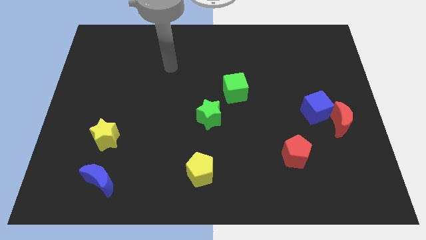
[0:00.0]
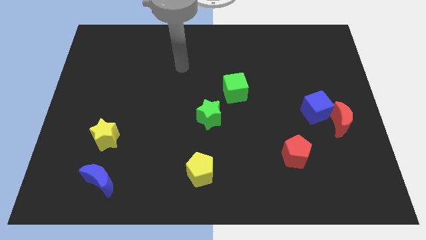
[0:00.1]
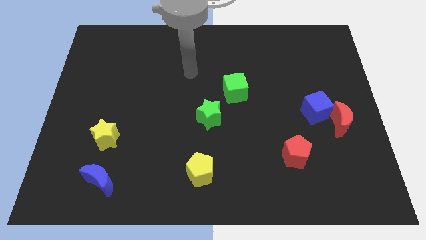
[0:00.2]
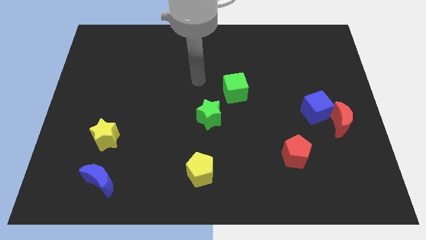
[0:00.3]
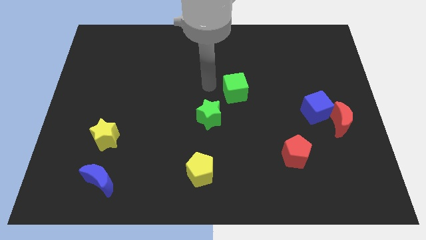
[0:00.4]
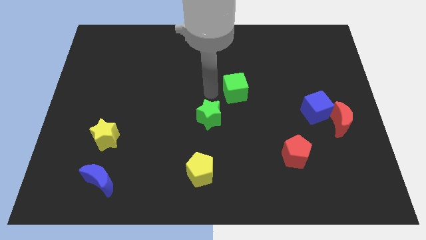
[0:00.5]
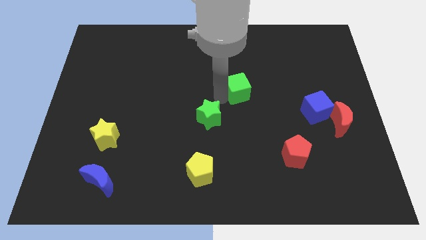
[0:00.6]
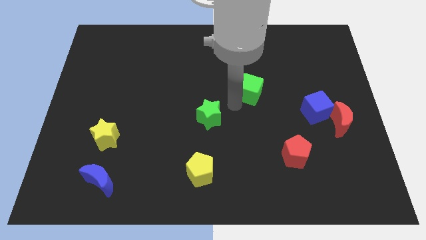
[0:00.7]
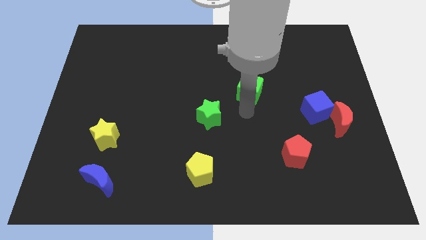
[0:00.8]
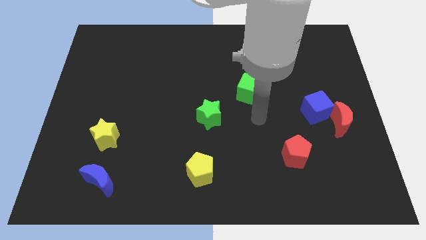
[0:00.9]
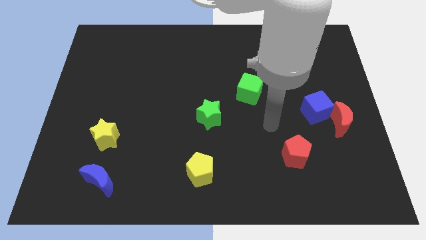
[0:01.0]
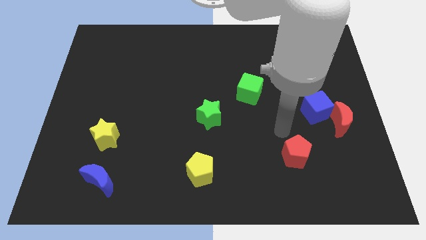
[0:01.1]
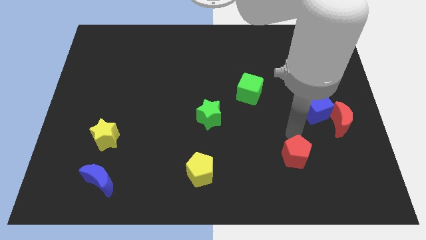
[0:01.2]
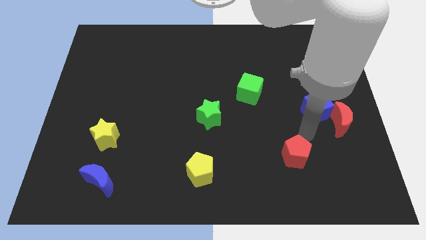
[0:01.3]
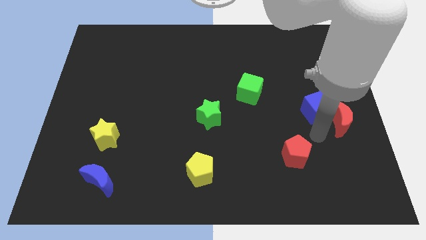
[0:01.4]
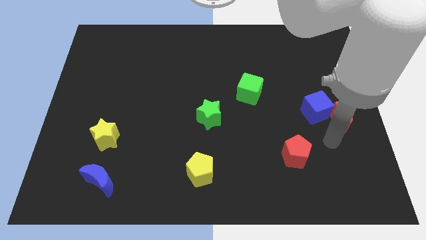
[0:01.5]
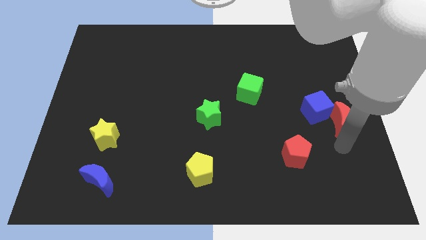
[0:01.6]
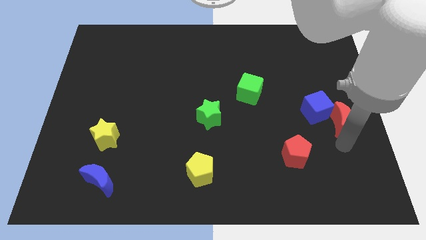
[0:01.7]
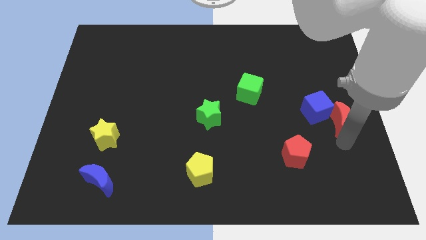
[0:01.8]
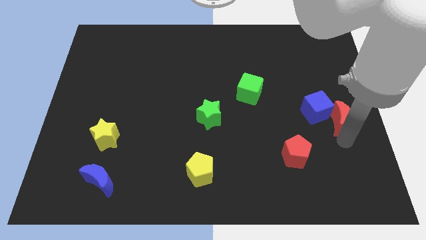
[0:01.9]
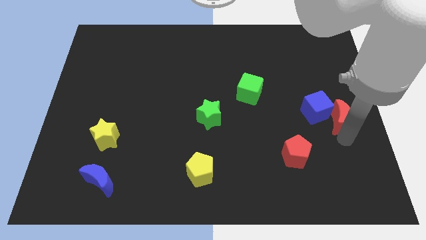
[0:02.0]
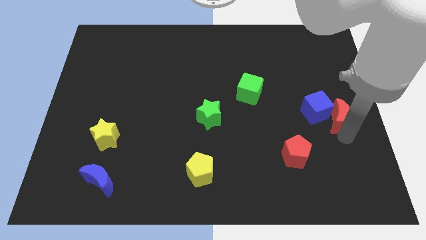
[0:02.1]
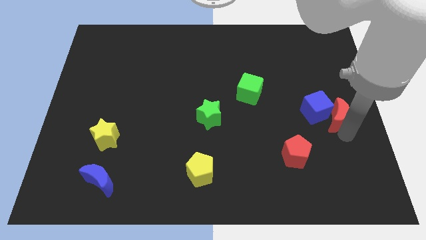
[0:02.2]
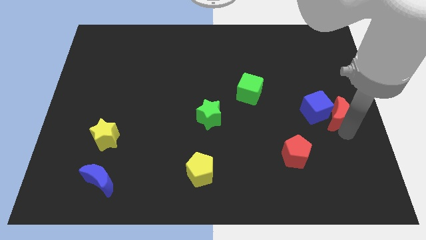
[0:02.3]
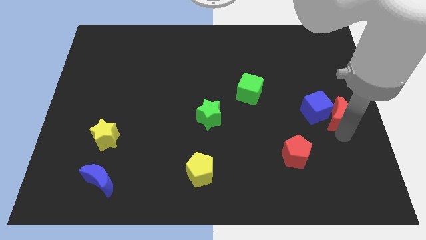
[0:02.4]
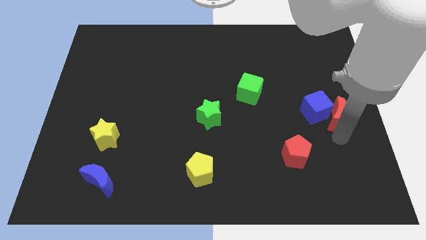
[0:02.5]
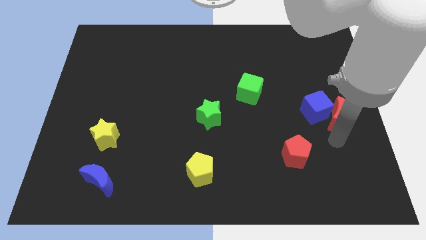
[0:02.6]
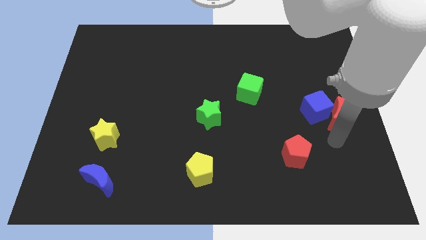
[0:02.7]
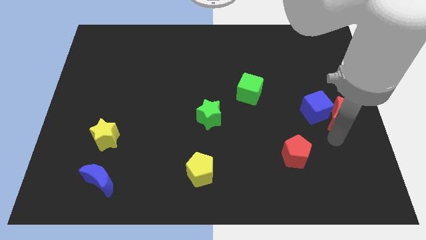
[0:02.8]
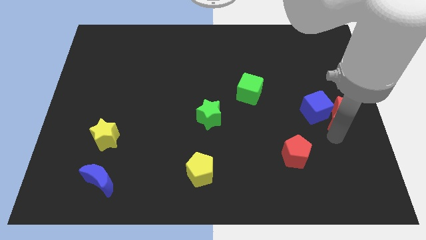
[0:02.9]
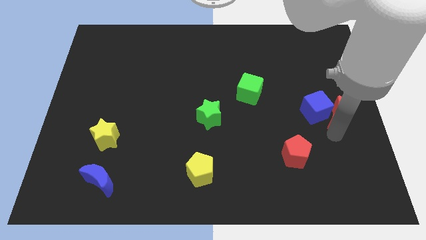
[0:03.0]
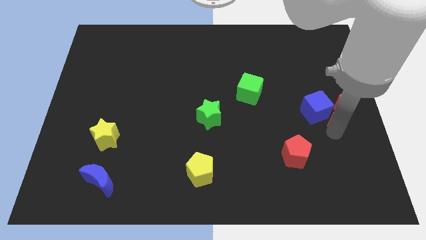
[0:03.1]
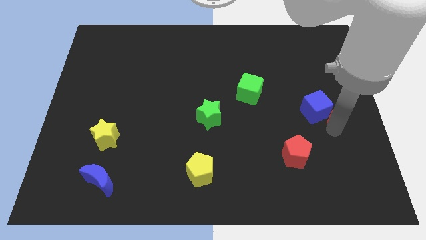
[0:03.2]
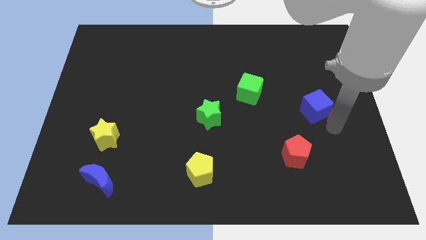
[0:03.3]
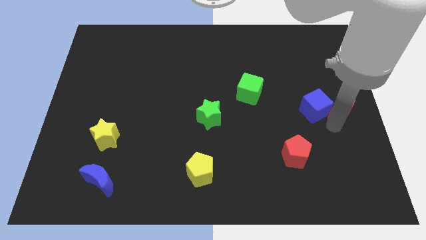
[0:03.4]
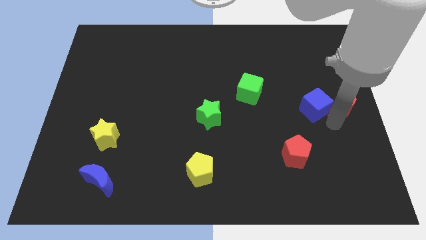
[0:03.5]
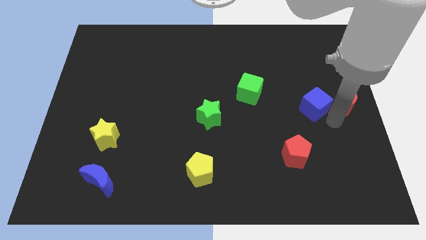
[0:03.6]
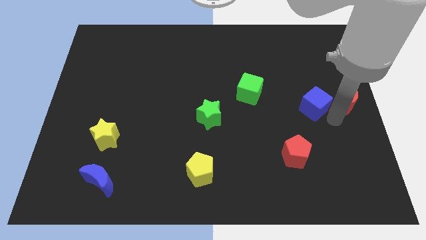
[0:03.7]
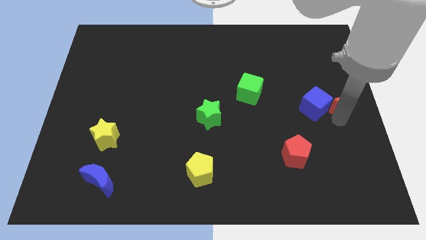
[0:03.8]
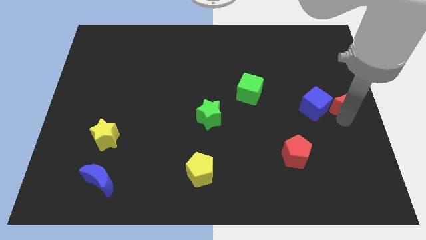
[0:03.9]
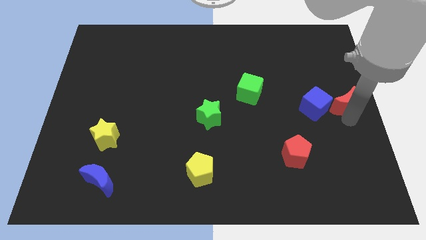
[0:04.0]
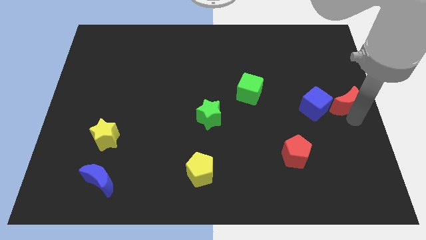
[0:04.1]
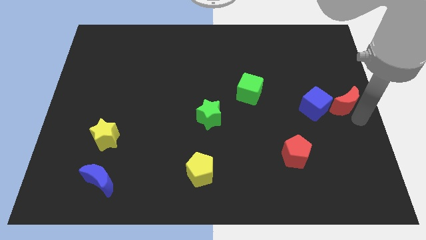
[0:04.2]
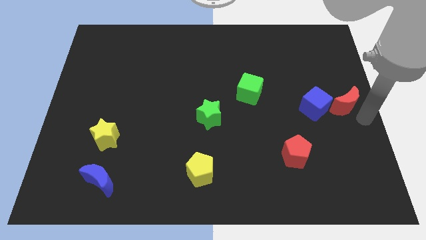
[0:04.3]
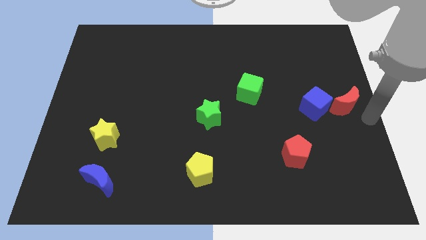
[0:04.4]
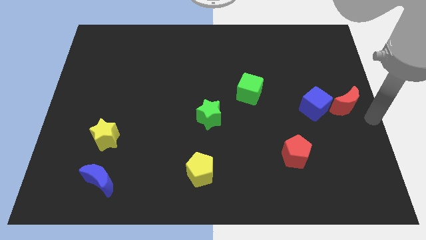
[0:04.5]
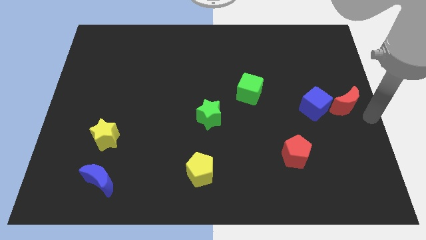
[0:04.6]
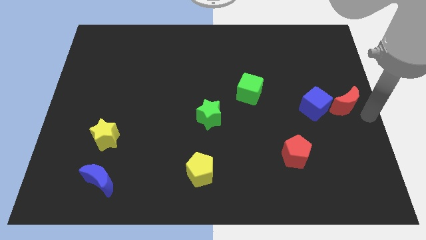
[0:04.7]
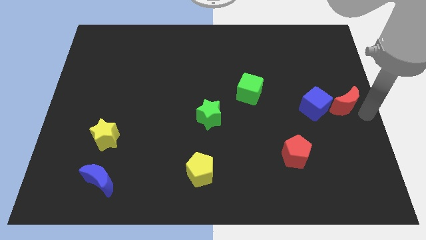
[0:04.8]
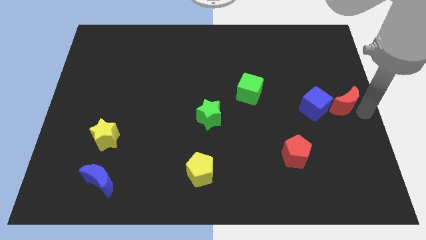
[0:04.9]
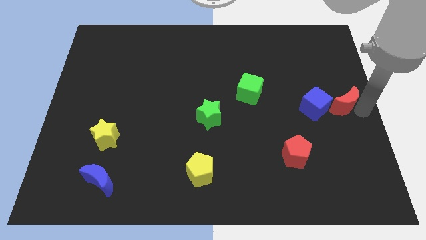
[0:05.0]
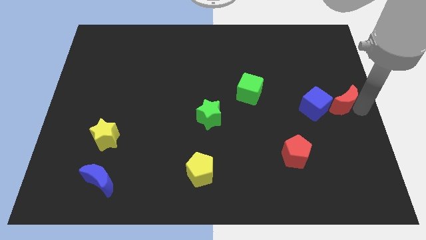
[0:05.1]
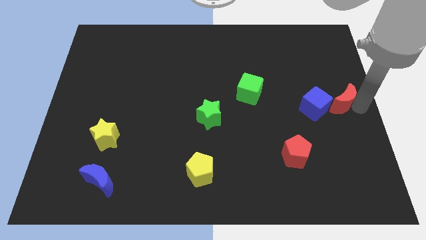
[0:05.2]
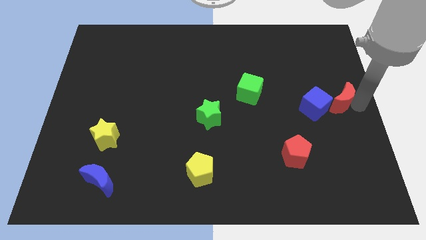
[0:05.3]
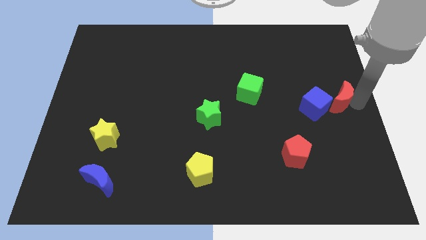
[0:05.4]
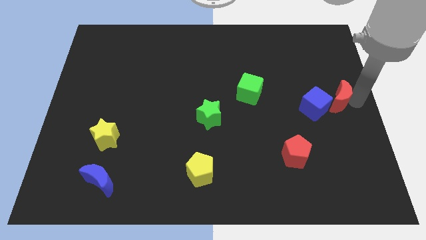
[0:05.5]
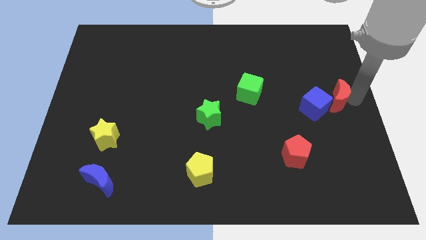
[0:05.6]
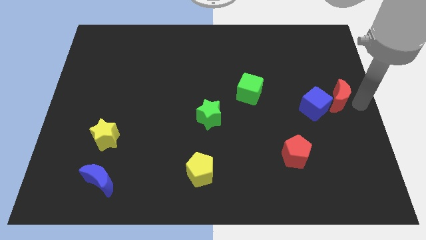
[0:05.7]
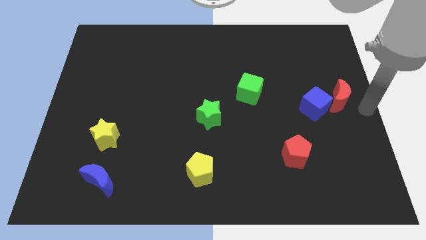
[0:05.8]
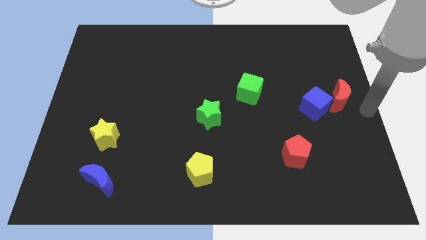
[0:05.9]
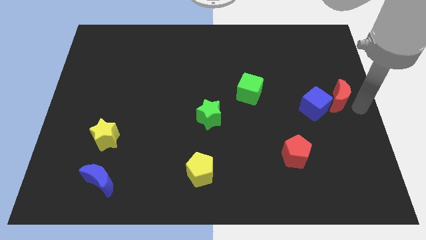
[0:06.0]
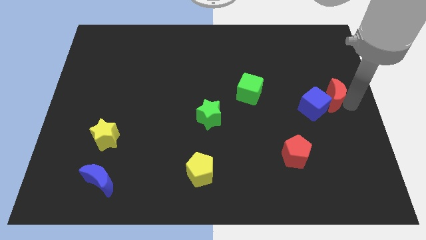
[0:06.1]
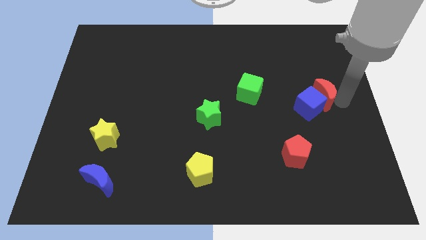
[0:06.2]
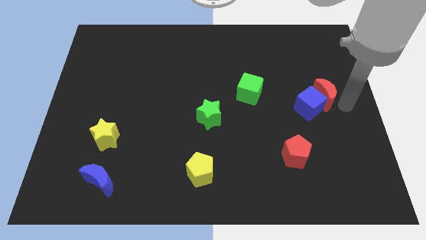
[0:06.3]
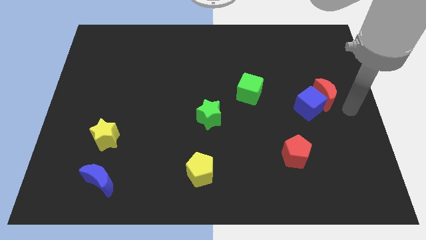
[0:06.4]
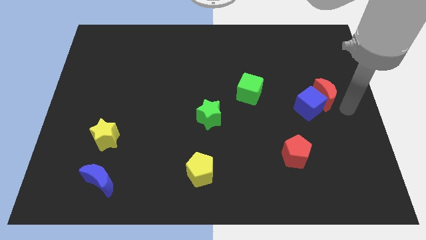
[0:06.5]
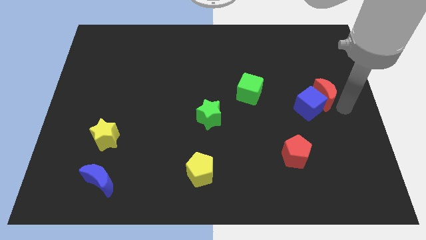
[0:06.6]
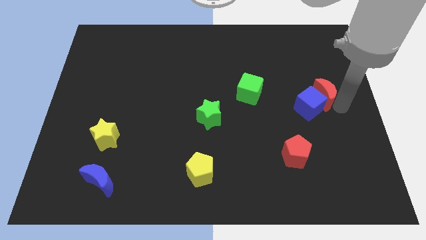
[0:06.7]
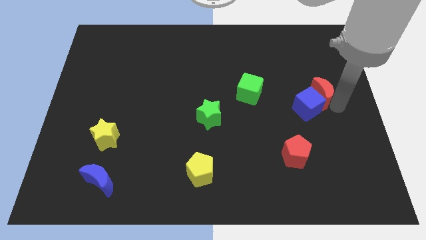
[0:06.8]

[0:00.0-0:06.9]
slide the red moon slightly up and to the left

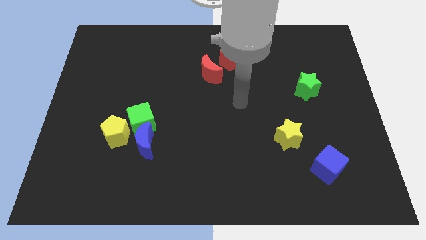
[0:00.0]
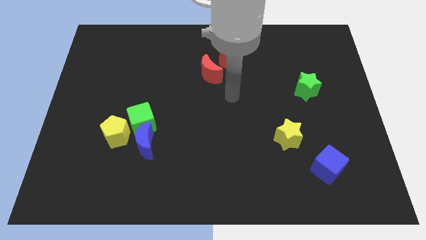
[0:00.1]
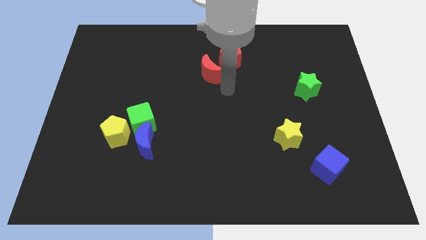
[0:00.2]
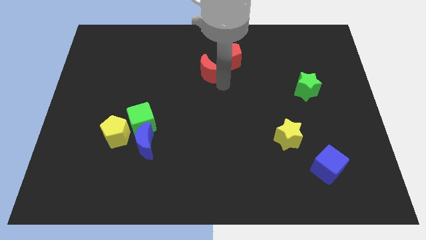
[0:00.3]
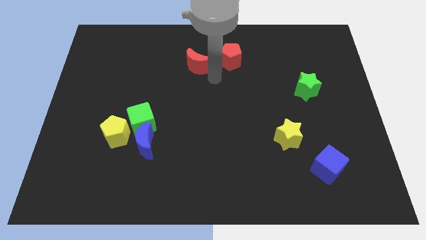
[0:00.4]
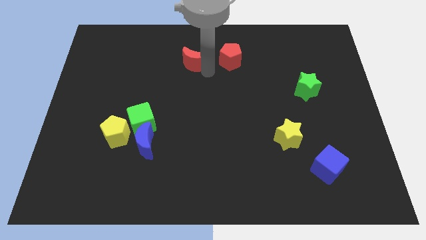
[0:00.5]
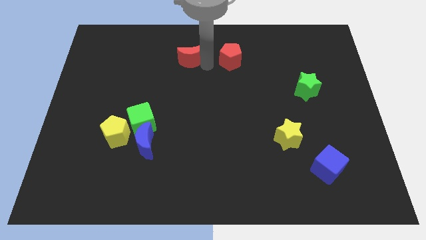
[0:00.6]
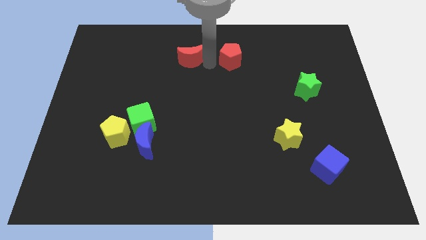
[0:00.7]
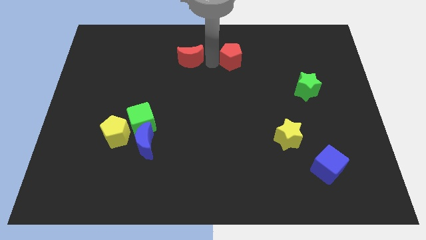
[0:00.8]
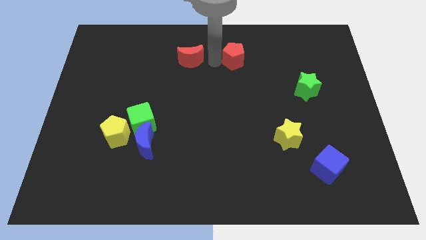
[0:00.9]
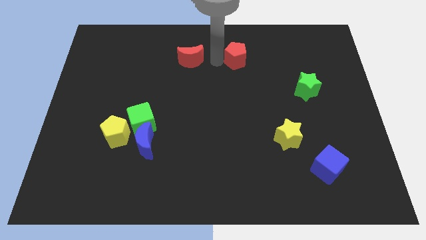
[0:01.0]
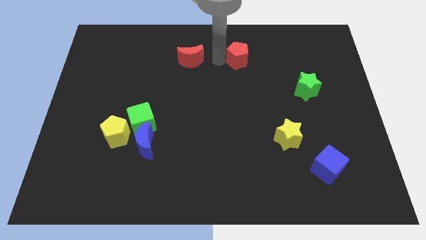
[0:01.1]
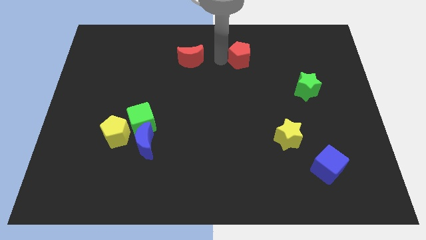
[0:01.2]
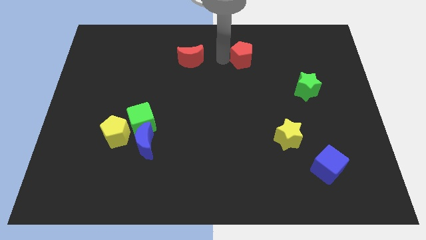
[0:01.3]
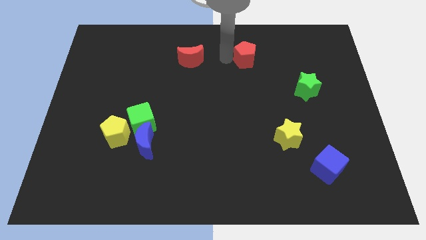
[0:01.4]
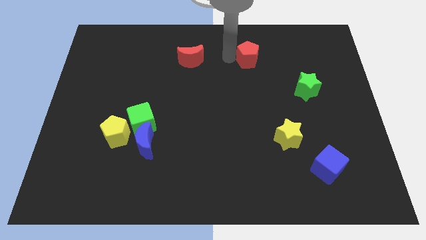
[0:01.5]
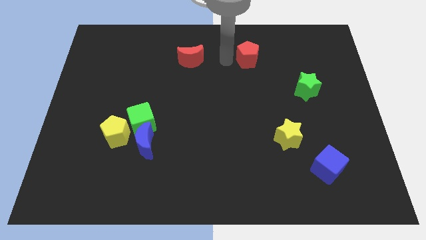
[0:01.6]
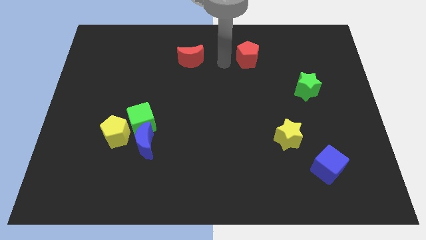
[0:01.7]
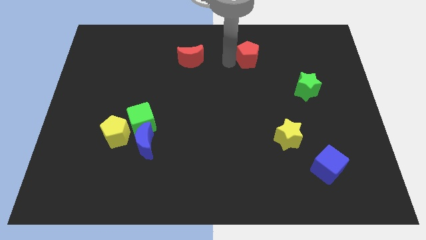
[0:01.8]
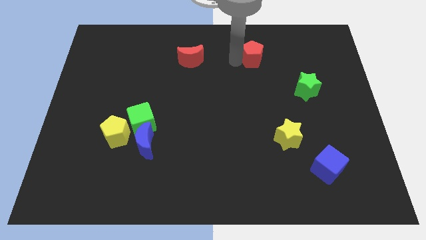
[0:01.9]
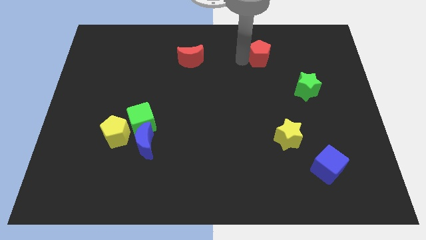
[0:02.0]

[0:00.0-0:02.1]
slightly move the red pentagon right
